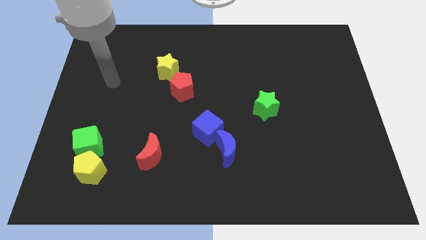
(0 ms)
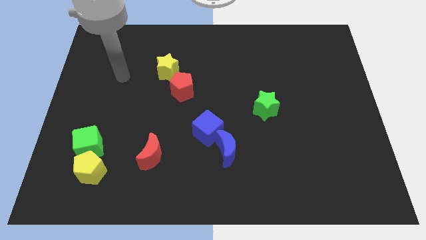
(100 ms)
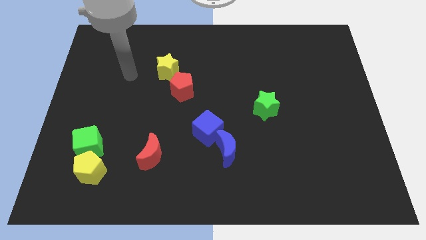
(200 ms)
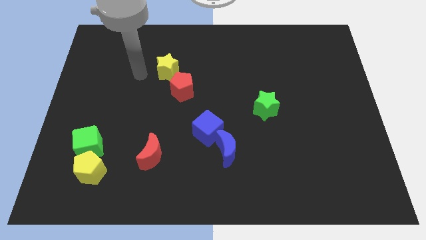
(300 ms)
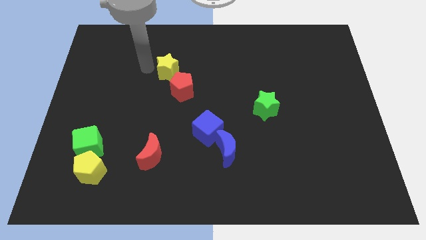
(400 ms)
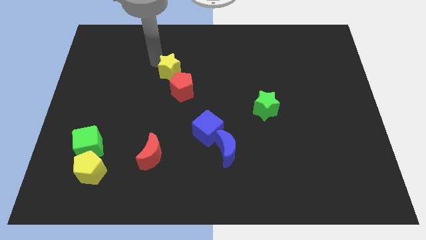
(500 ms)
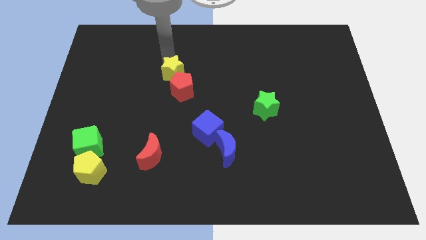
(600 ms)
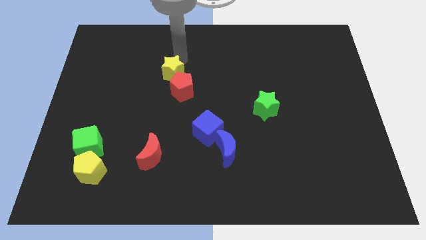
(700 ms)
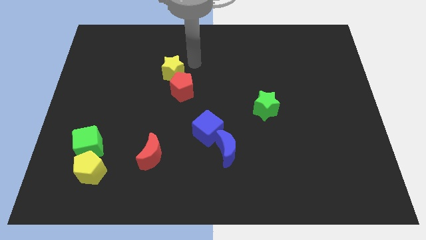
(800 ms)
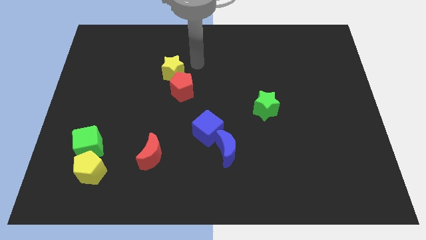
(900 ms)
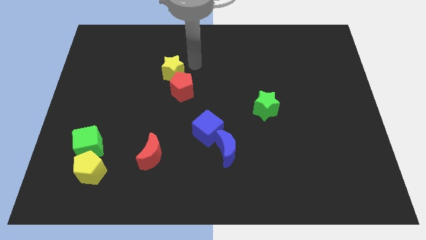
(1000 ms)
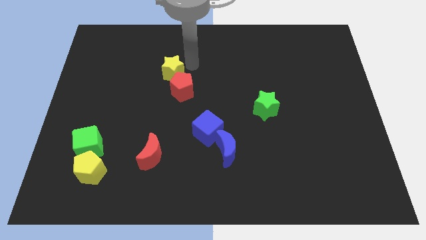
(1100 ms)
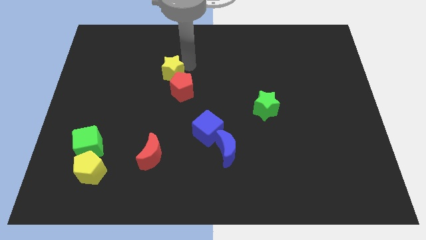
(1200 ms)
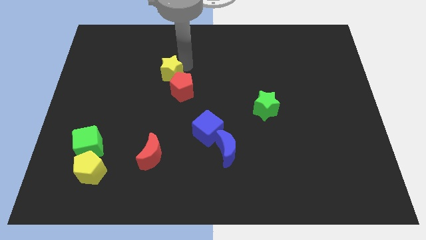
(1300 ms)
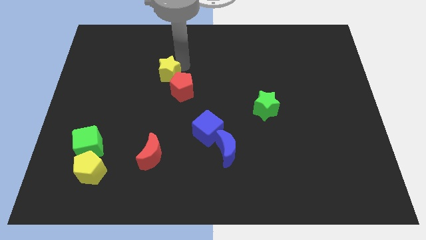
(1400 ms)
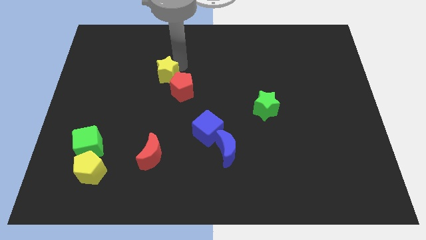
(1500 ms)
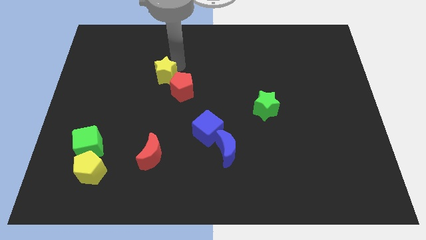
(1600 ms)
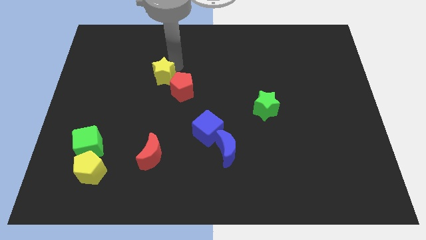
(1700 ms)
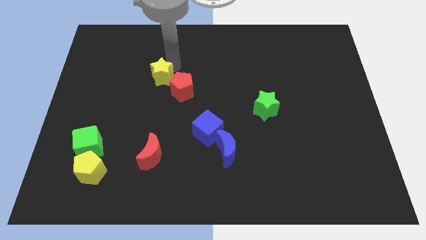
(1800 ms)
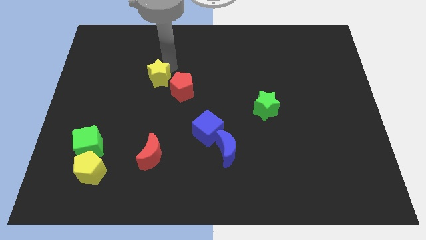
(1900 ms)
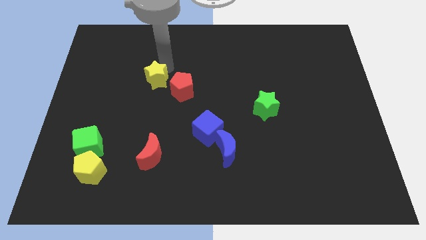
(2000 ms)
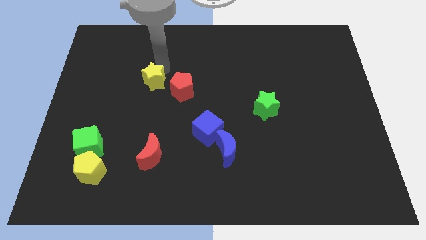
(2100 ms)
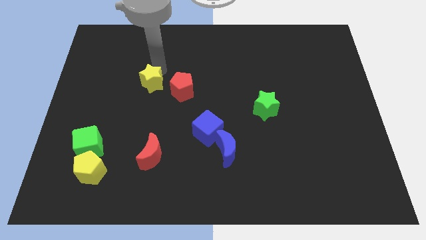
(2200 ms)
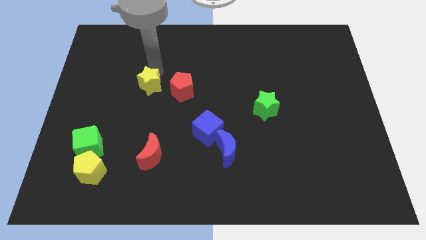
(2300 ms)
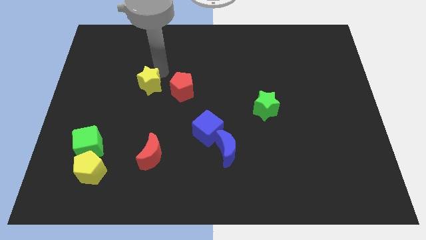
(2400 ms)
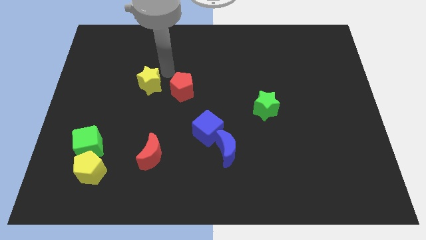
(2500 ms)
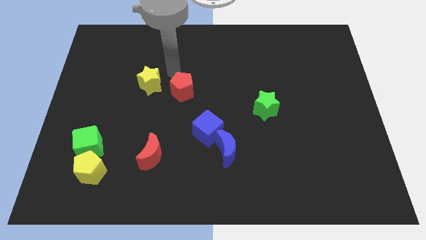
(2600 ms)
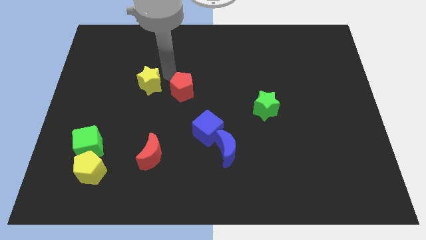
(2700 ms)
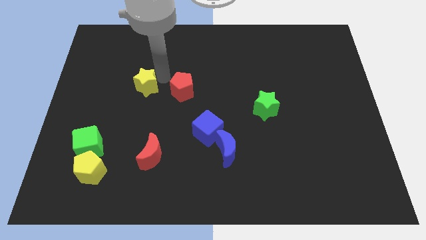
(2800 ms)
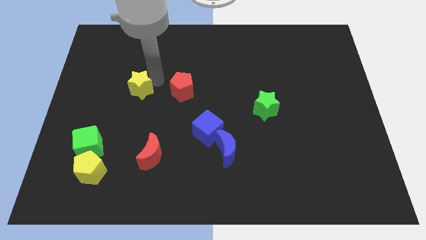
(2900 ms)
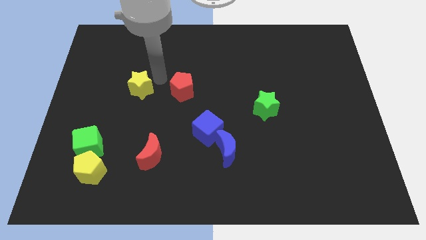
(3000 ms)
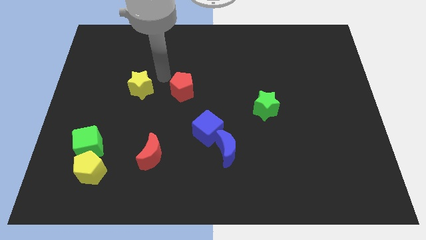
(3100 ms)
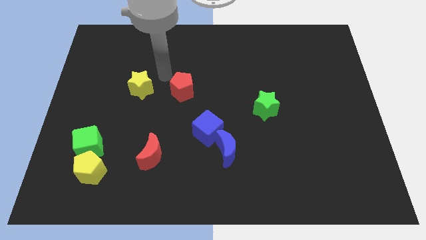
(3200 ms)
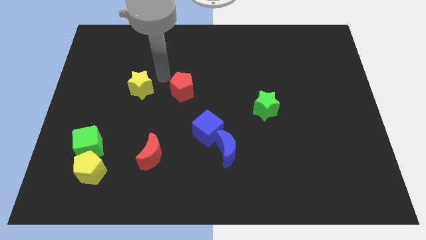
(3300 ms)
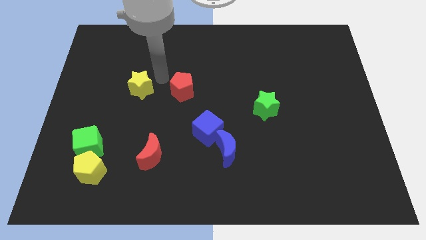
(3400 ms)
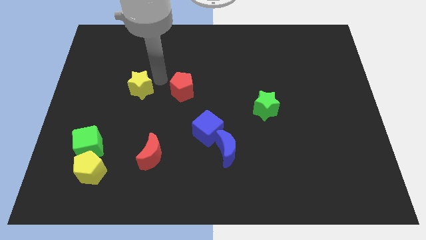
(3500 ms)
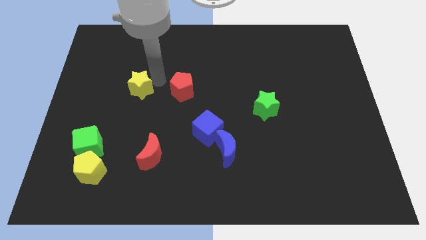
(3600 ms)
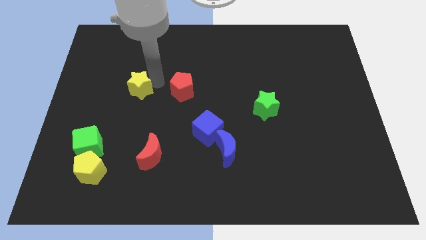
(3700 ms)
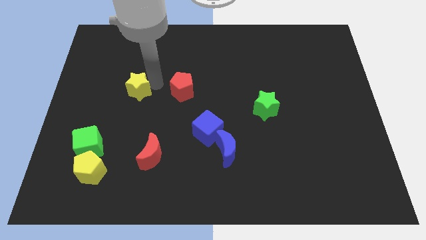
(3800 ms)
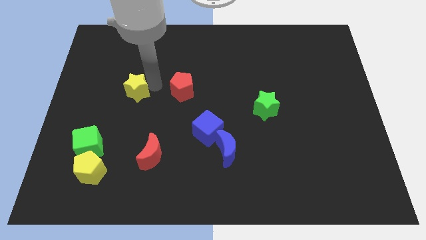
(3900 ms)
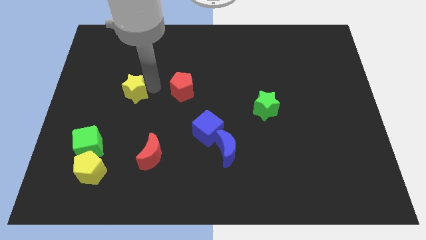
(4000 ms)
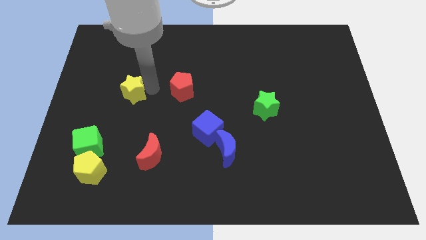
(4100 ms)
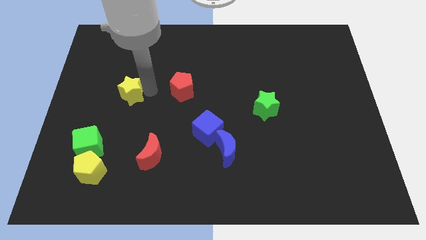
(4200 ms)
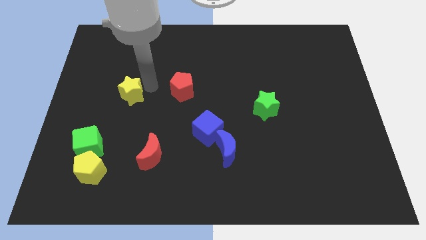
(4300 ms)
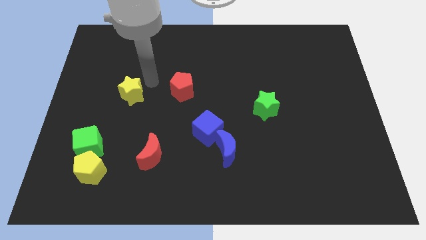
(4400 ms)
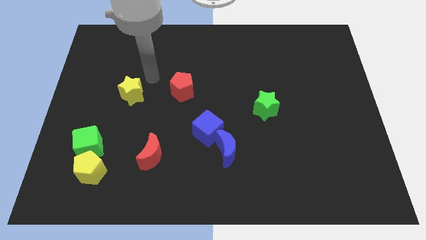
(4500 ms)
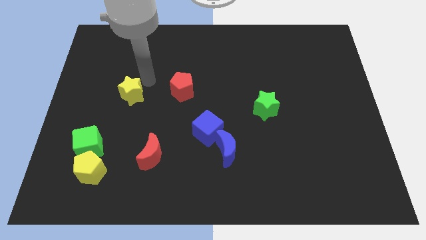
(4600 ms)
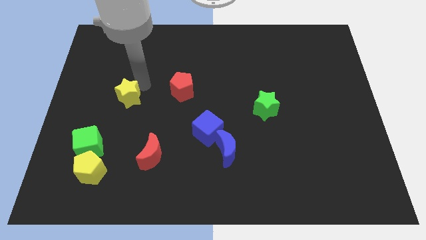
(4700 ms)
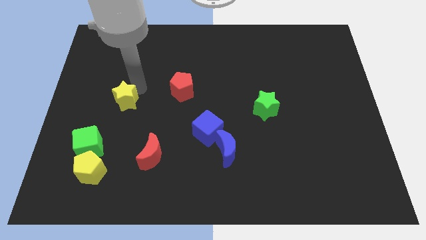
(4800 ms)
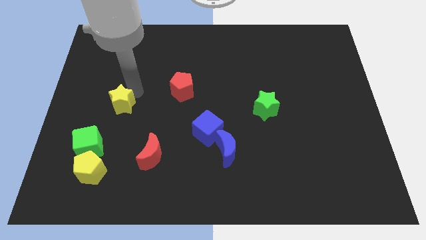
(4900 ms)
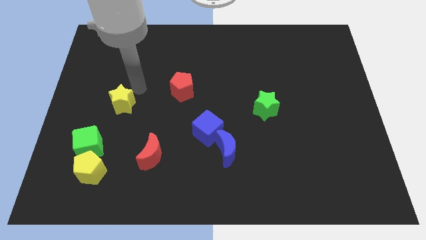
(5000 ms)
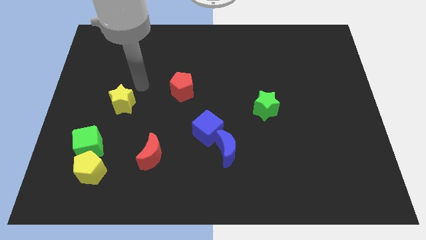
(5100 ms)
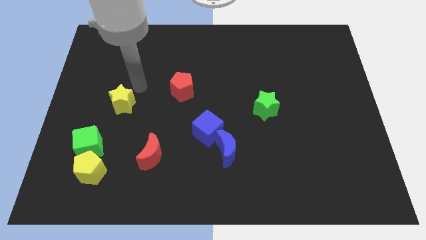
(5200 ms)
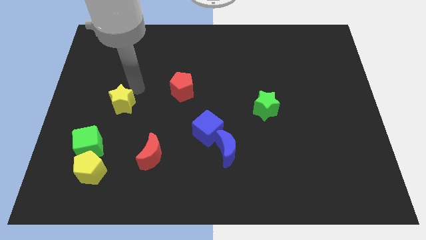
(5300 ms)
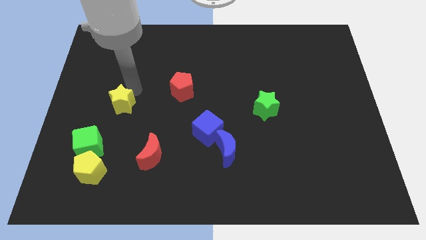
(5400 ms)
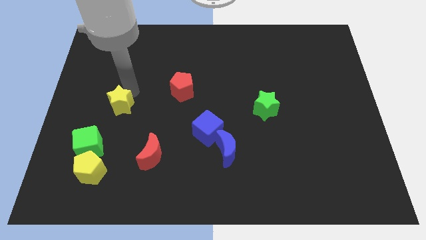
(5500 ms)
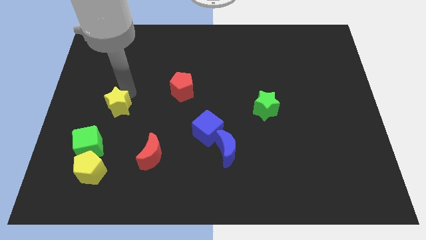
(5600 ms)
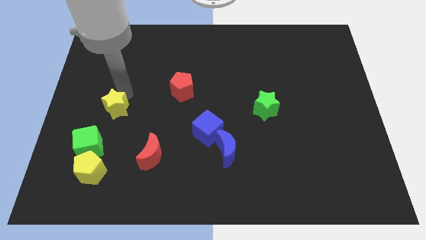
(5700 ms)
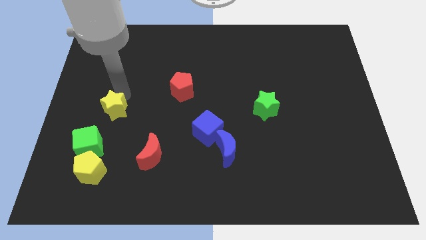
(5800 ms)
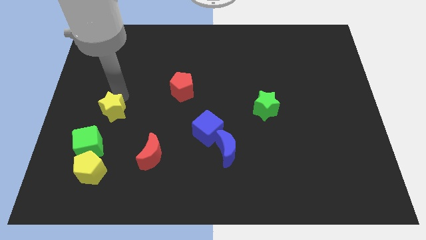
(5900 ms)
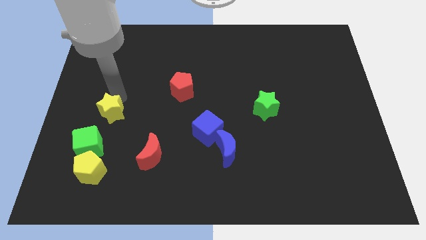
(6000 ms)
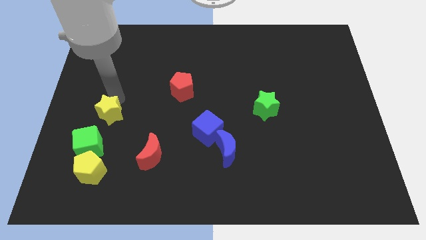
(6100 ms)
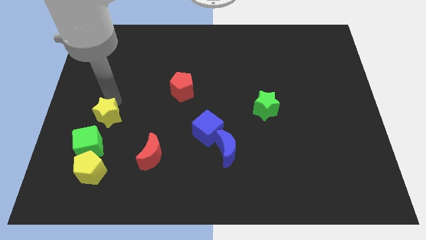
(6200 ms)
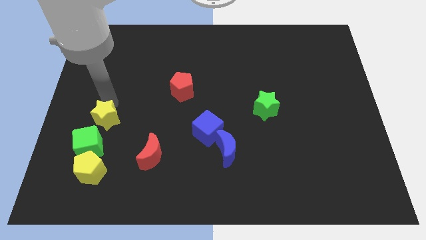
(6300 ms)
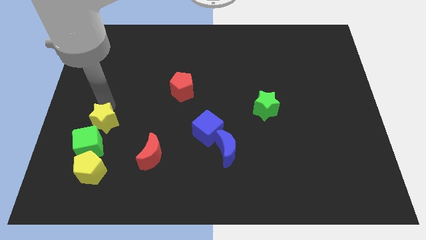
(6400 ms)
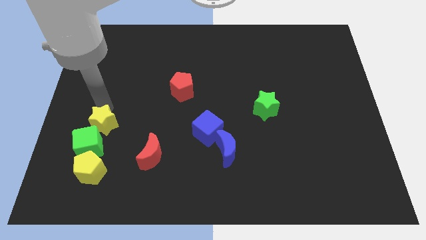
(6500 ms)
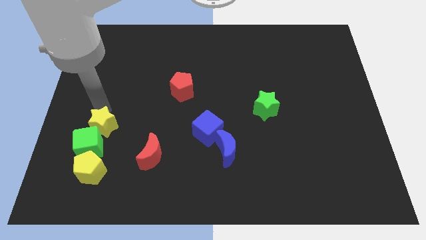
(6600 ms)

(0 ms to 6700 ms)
slide the yellow star towards the green cube

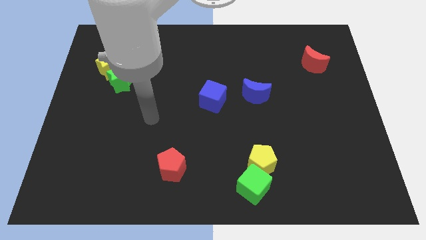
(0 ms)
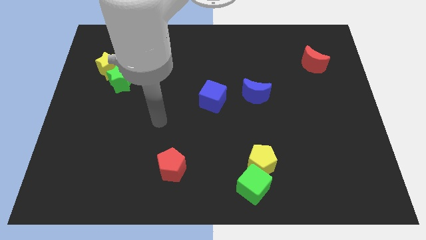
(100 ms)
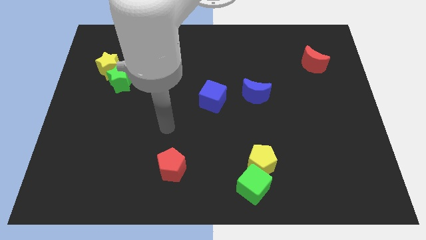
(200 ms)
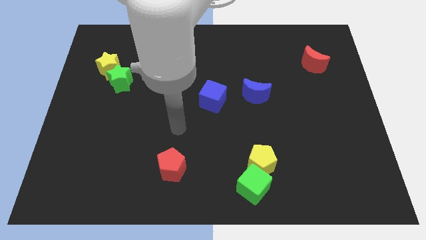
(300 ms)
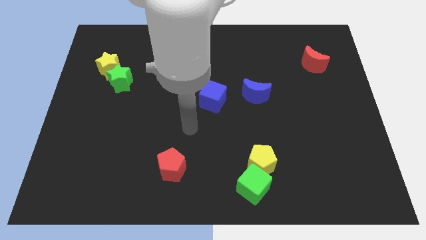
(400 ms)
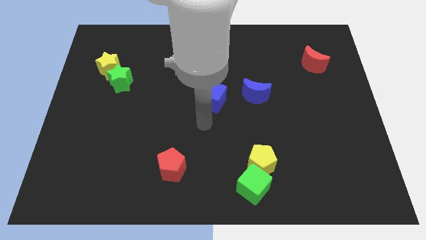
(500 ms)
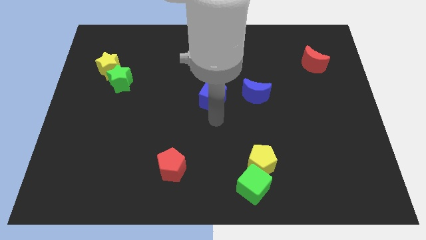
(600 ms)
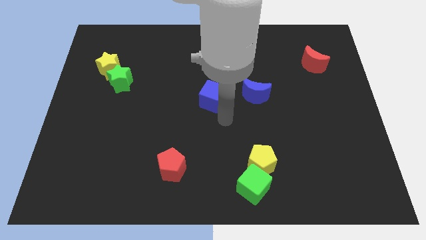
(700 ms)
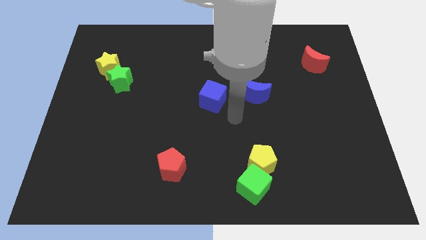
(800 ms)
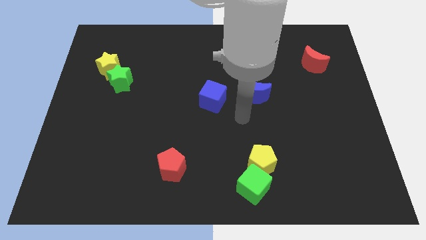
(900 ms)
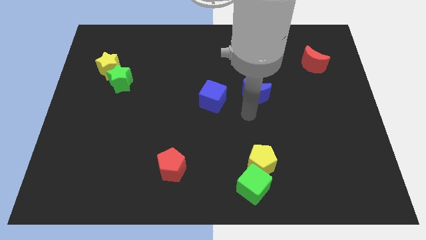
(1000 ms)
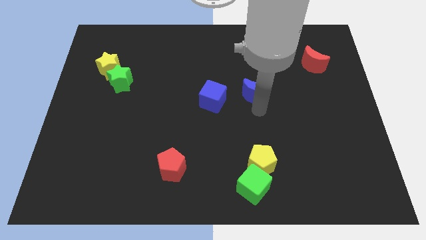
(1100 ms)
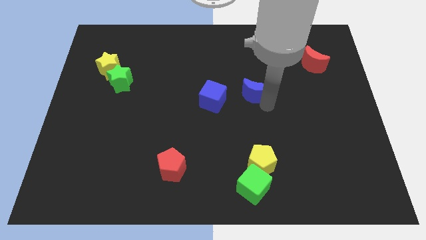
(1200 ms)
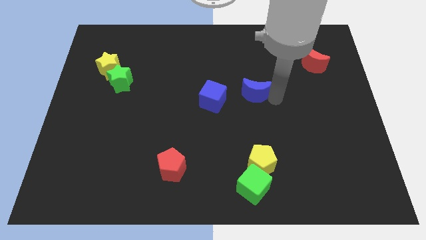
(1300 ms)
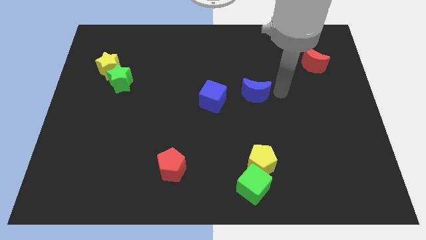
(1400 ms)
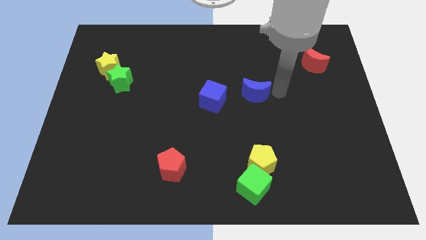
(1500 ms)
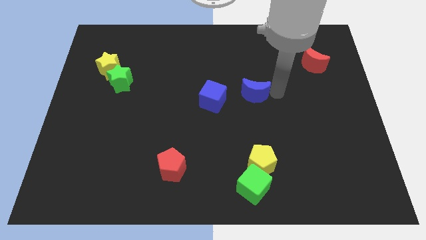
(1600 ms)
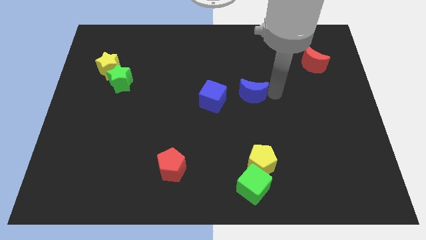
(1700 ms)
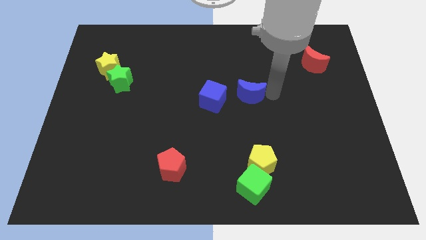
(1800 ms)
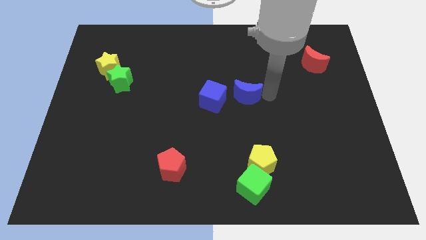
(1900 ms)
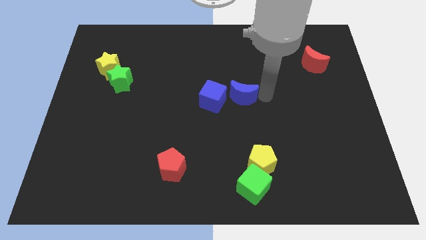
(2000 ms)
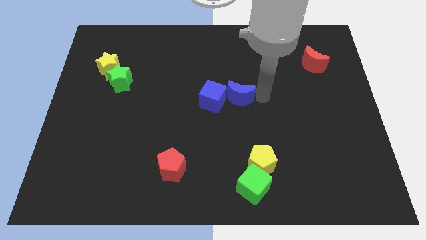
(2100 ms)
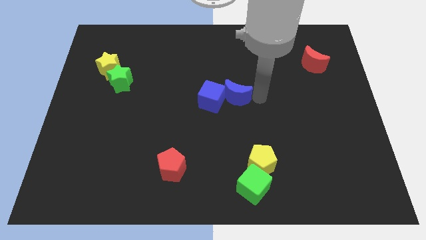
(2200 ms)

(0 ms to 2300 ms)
push the blue moon next to the blue cube
